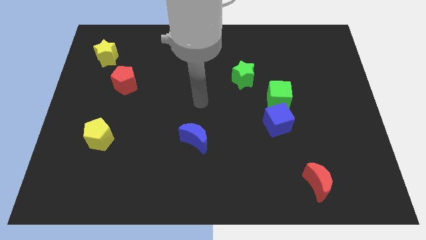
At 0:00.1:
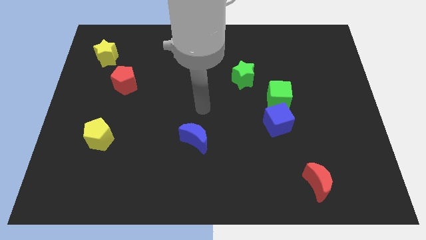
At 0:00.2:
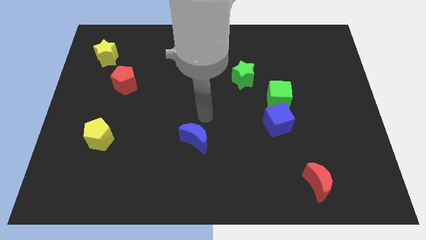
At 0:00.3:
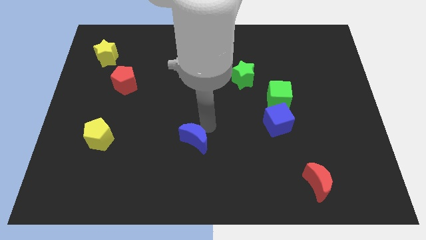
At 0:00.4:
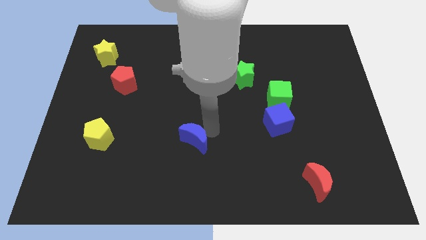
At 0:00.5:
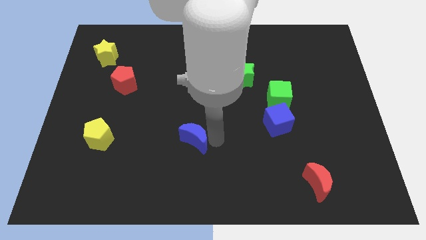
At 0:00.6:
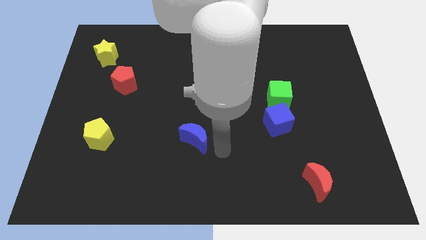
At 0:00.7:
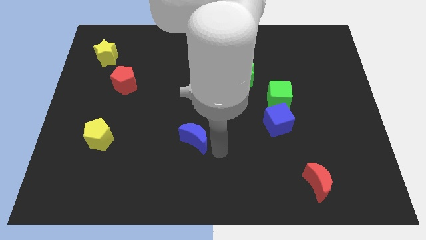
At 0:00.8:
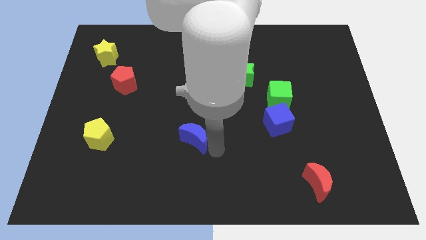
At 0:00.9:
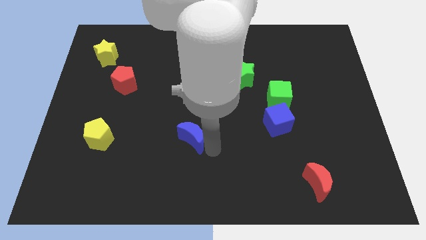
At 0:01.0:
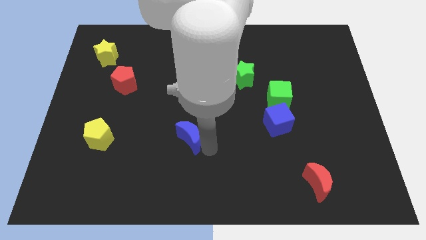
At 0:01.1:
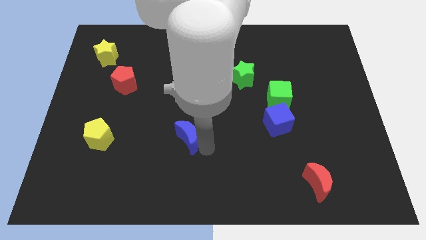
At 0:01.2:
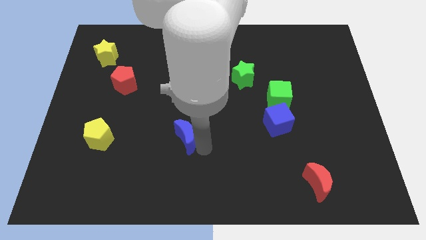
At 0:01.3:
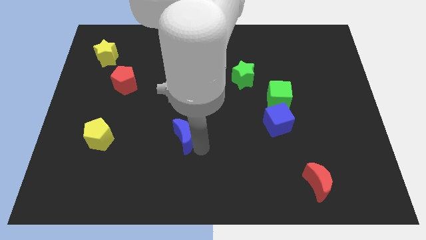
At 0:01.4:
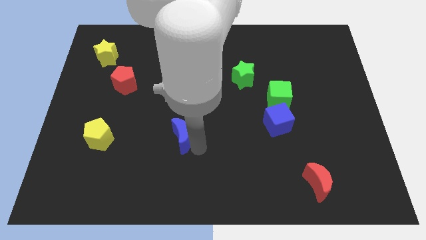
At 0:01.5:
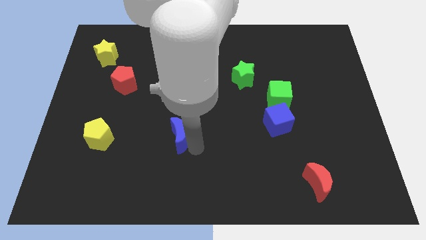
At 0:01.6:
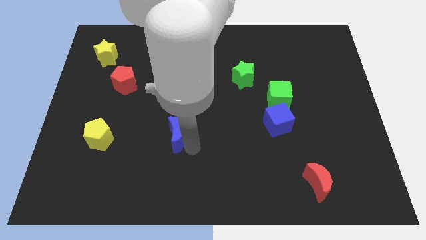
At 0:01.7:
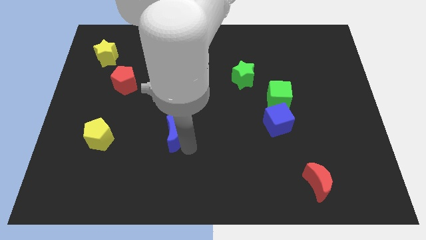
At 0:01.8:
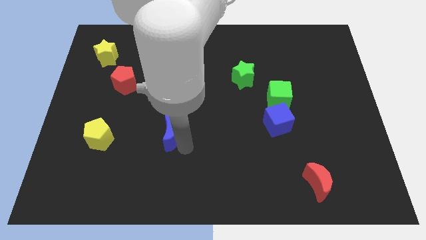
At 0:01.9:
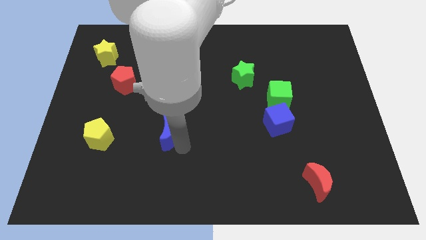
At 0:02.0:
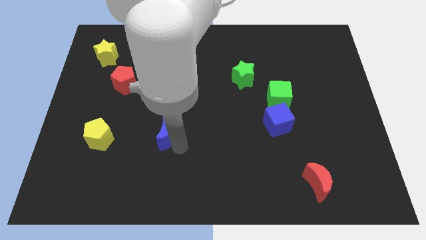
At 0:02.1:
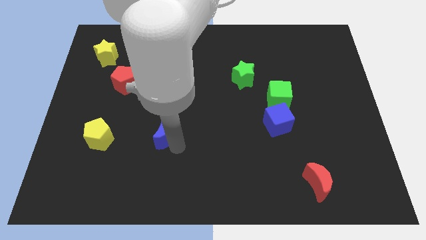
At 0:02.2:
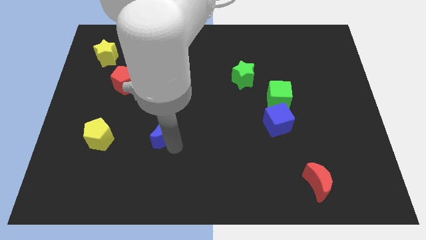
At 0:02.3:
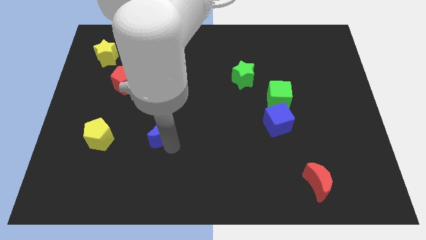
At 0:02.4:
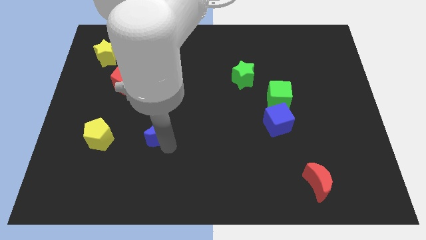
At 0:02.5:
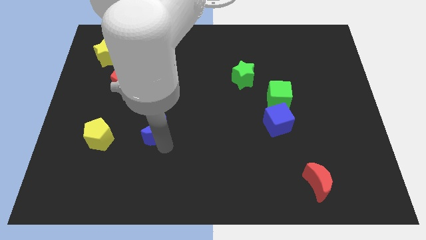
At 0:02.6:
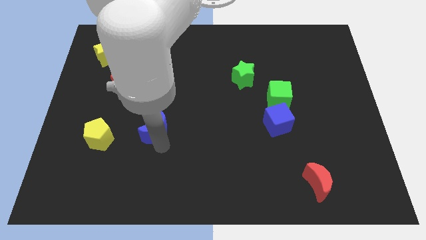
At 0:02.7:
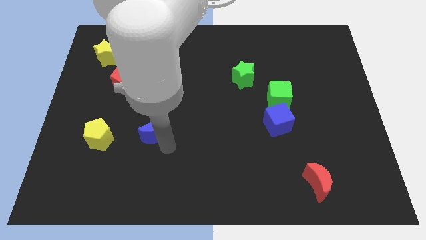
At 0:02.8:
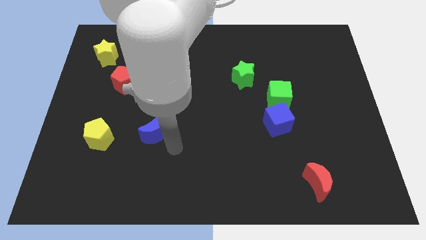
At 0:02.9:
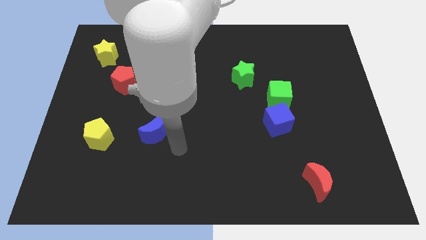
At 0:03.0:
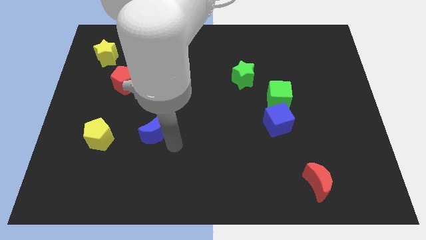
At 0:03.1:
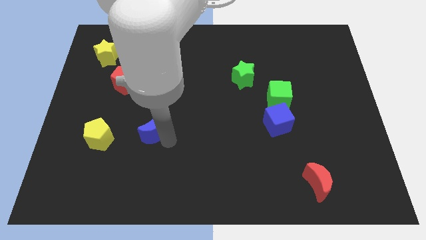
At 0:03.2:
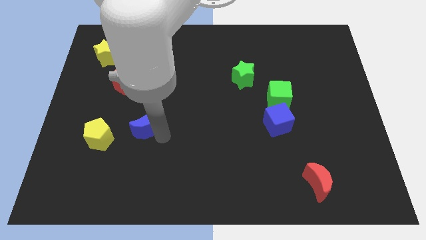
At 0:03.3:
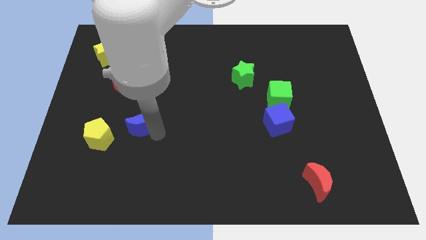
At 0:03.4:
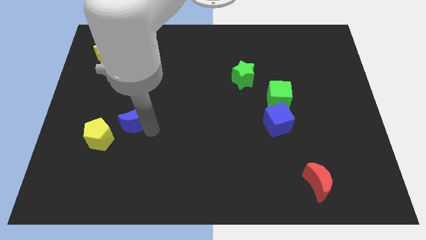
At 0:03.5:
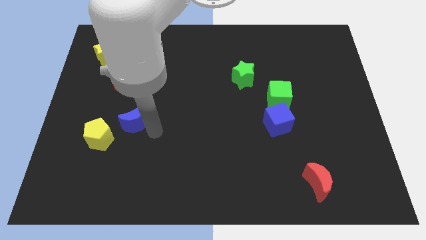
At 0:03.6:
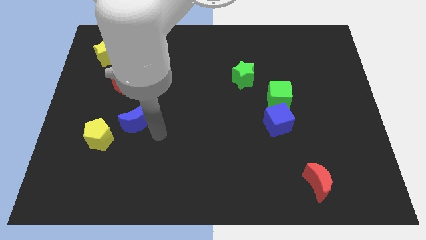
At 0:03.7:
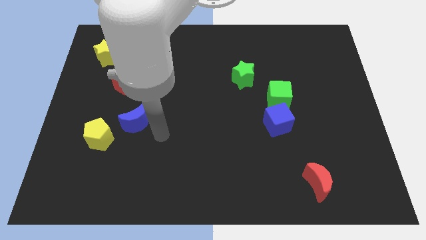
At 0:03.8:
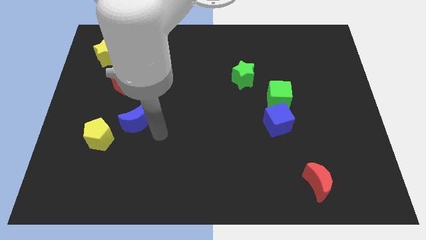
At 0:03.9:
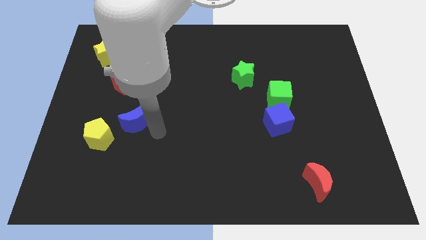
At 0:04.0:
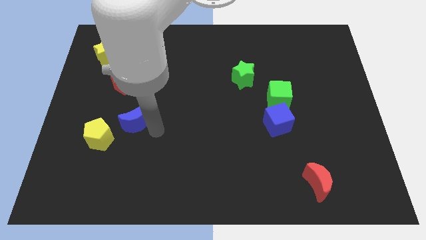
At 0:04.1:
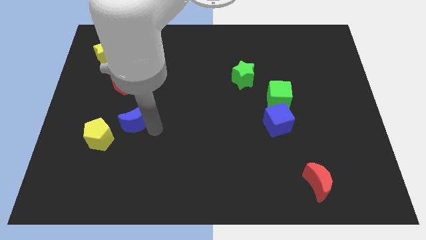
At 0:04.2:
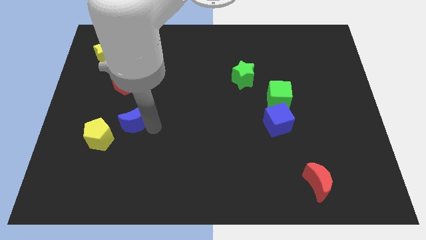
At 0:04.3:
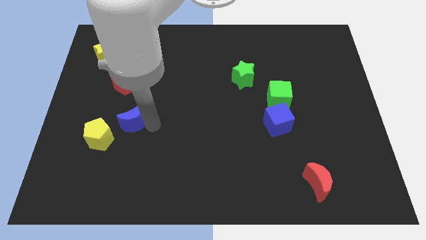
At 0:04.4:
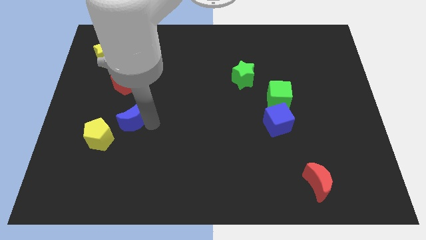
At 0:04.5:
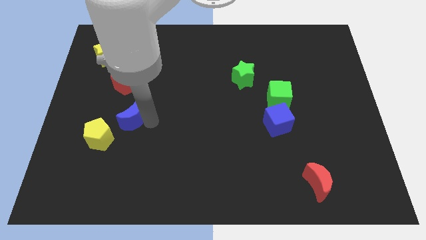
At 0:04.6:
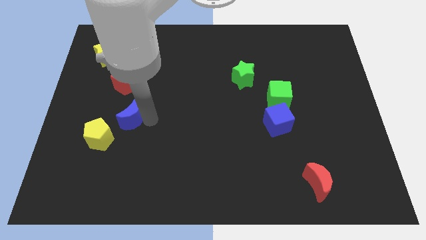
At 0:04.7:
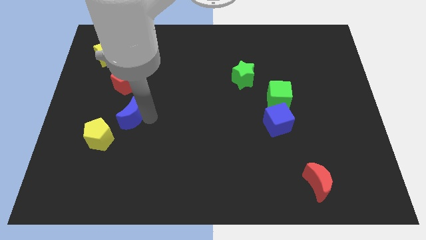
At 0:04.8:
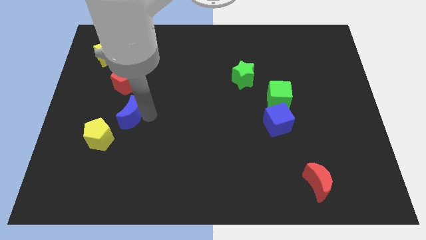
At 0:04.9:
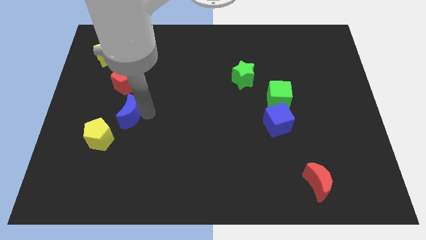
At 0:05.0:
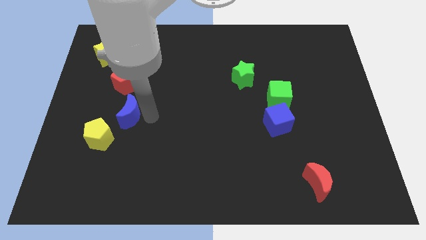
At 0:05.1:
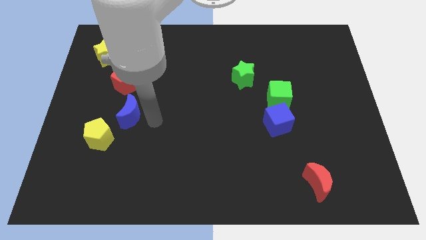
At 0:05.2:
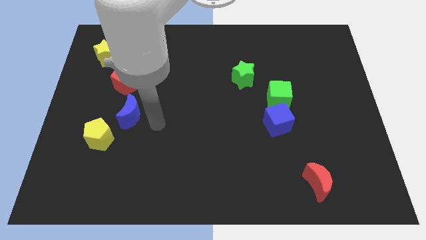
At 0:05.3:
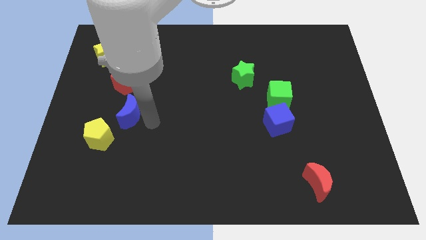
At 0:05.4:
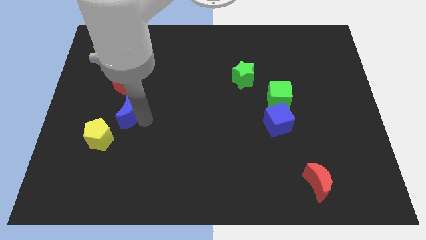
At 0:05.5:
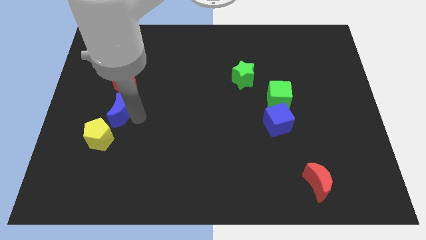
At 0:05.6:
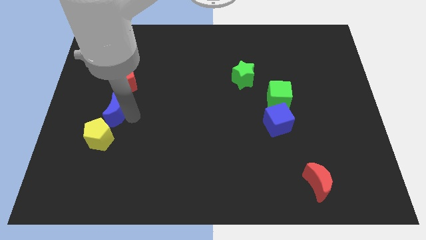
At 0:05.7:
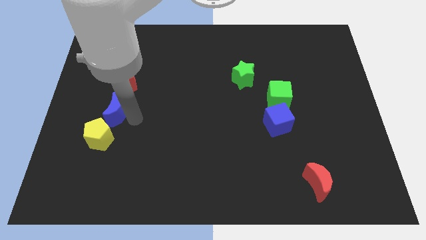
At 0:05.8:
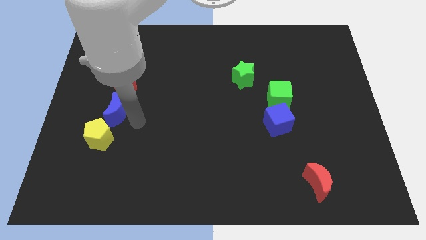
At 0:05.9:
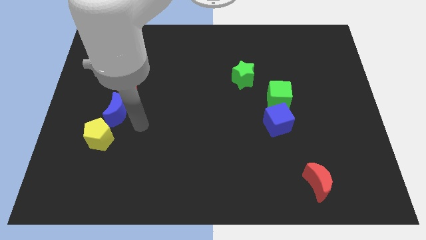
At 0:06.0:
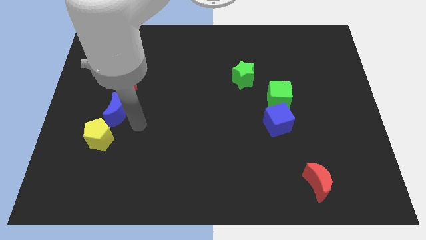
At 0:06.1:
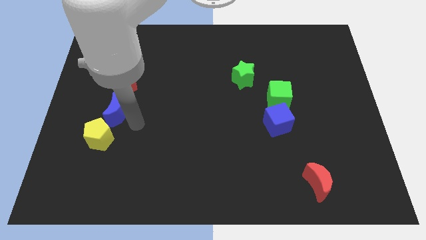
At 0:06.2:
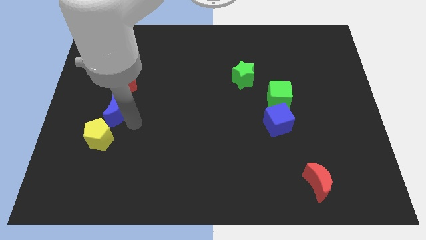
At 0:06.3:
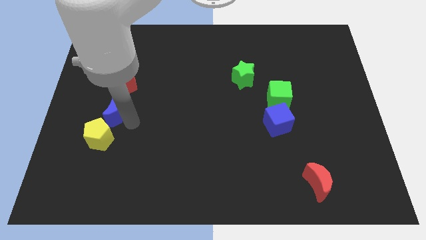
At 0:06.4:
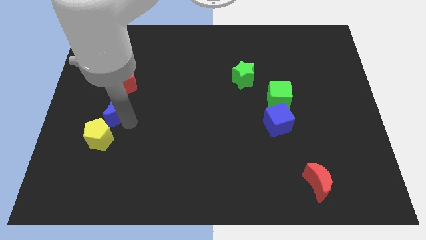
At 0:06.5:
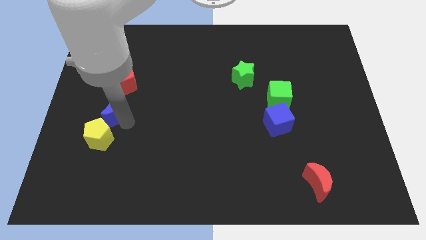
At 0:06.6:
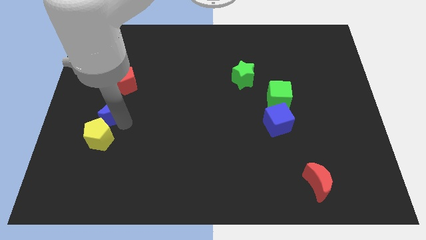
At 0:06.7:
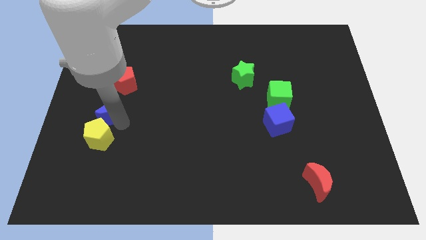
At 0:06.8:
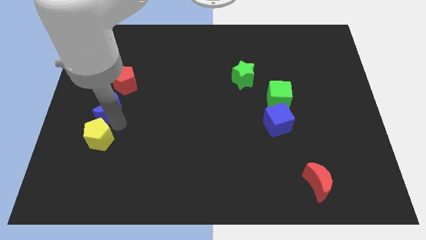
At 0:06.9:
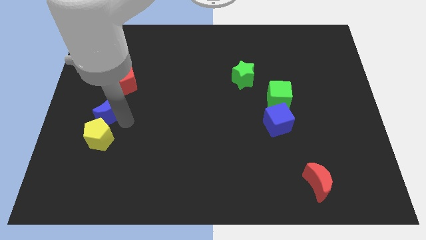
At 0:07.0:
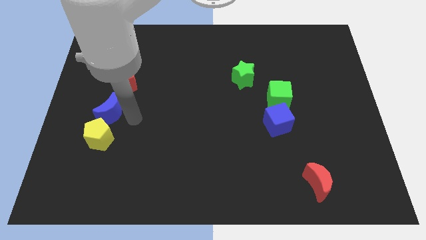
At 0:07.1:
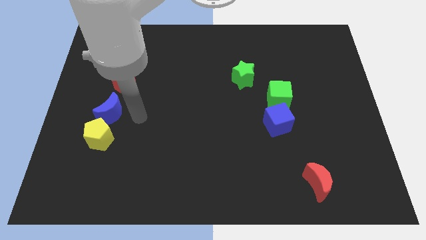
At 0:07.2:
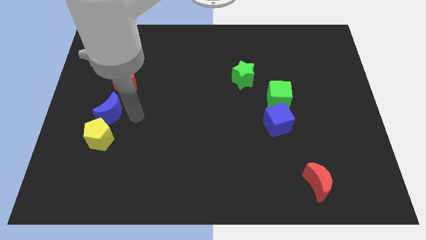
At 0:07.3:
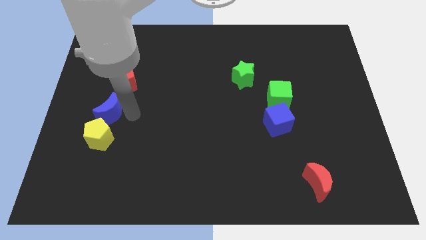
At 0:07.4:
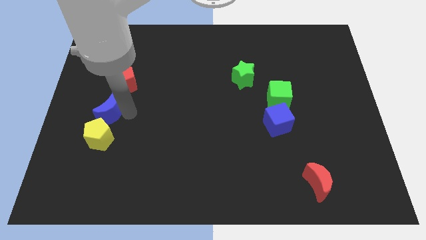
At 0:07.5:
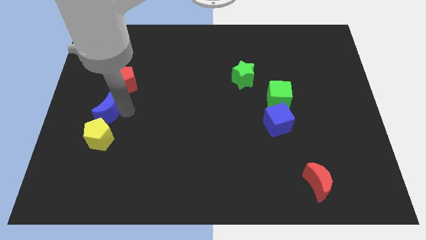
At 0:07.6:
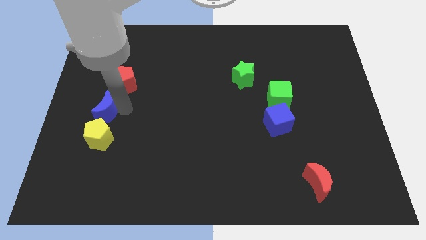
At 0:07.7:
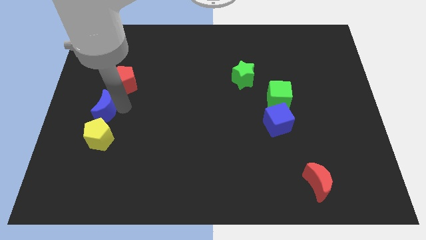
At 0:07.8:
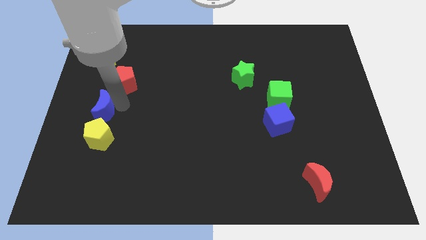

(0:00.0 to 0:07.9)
slide the blue moon to the left side
